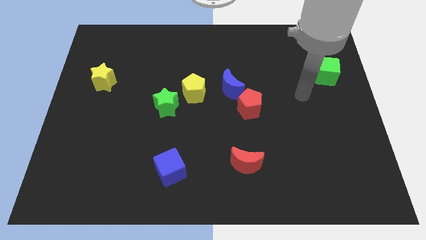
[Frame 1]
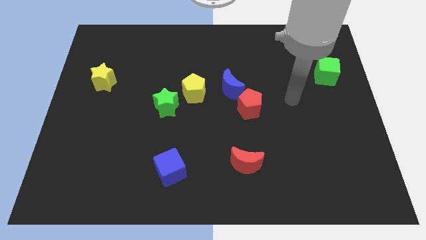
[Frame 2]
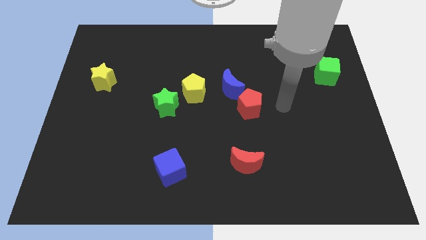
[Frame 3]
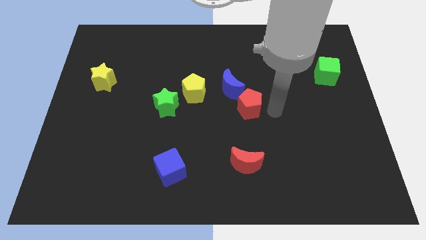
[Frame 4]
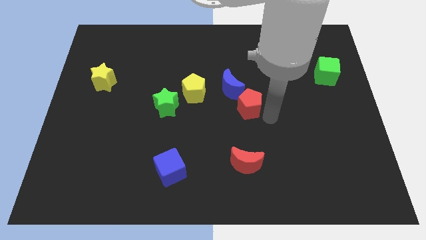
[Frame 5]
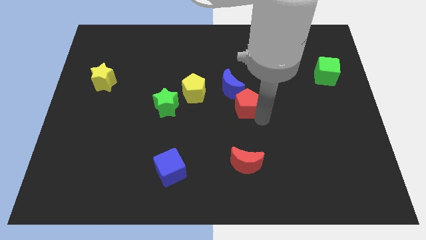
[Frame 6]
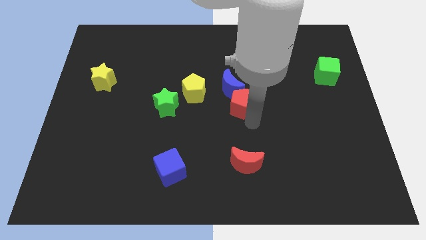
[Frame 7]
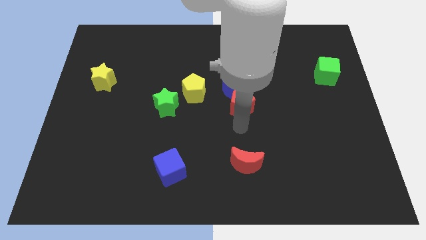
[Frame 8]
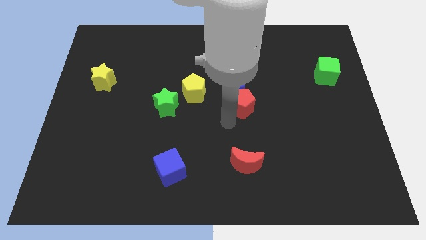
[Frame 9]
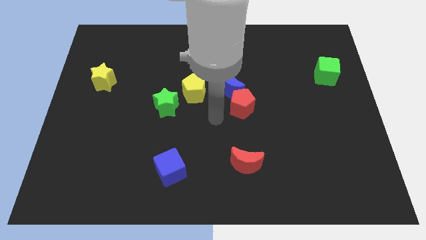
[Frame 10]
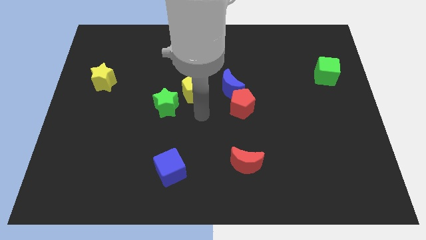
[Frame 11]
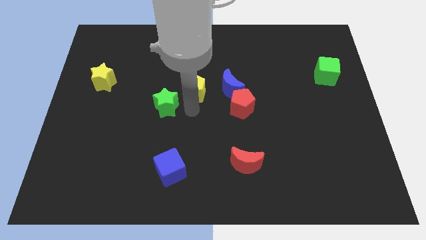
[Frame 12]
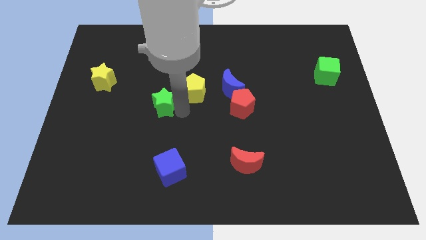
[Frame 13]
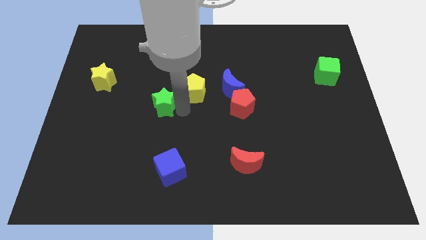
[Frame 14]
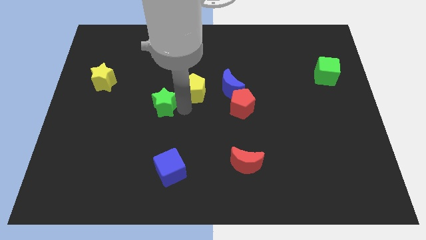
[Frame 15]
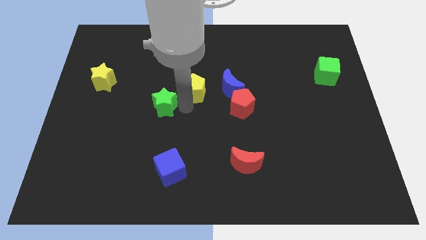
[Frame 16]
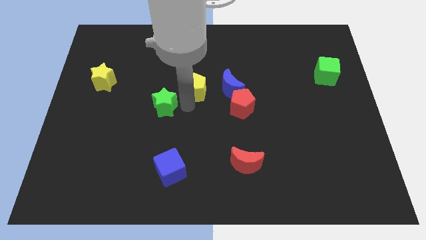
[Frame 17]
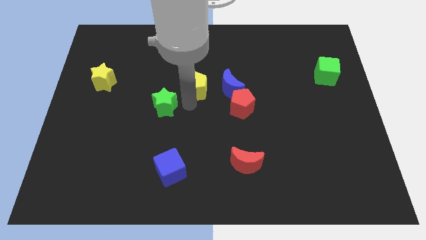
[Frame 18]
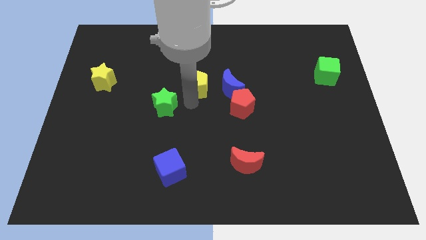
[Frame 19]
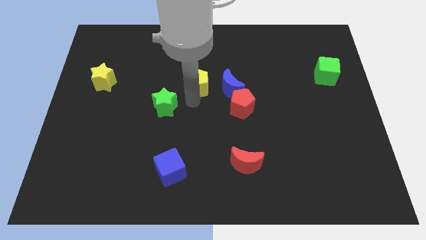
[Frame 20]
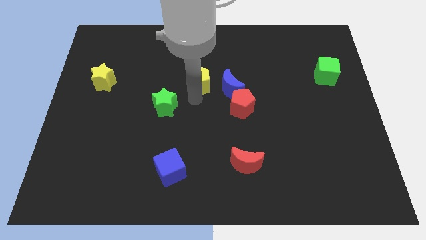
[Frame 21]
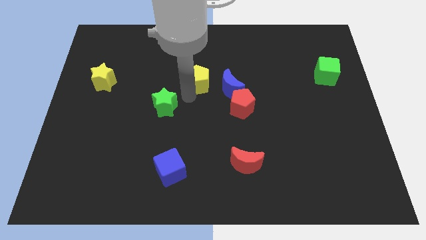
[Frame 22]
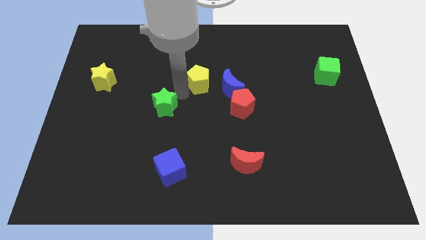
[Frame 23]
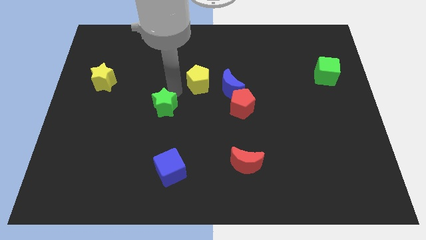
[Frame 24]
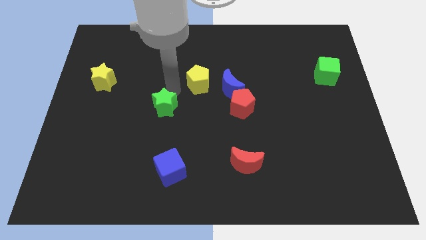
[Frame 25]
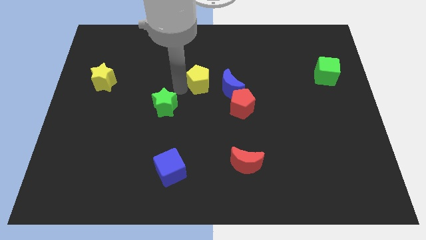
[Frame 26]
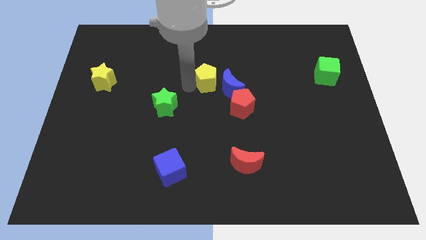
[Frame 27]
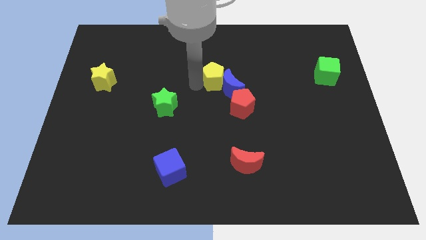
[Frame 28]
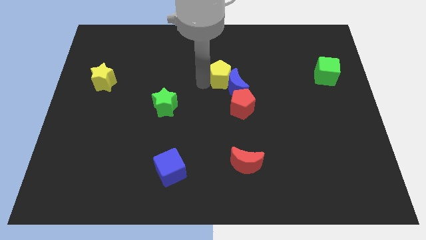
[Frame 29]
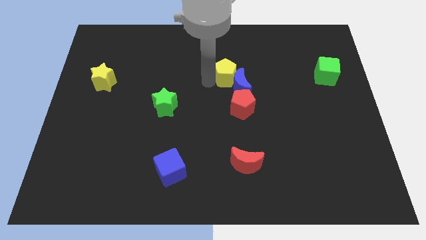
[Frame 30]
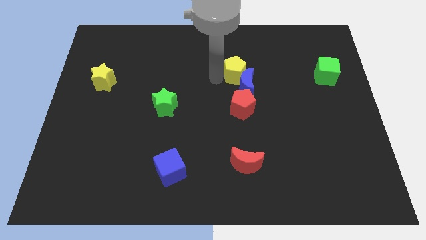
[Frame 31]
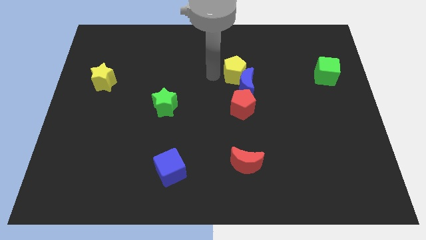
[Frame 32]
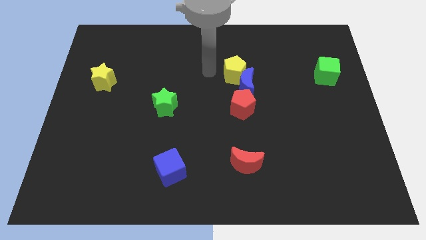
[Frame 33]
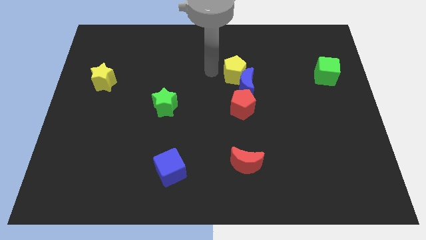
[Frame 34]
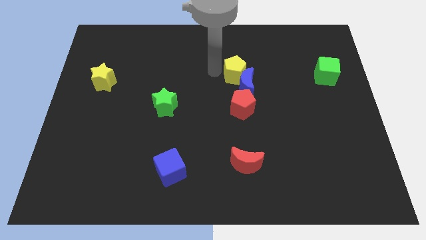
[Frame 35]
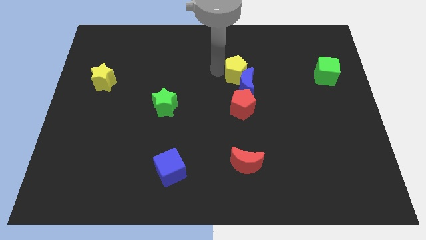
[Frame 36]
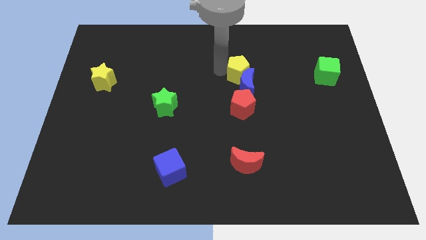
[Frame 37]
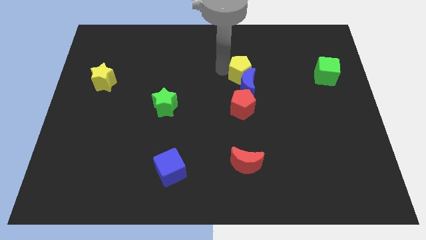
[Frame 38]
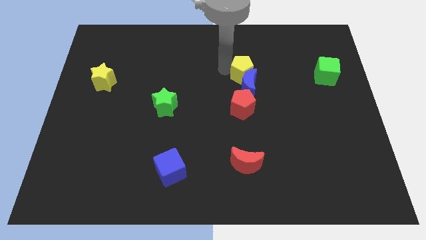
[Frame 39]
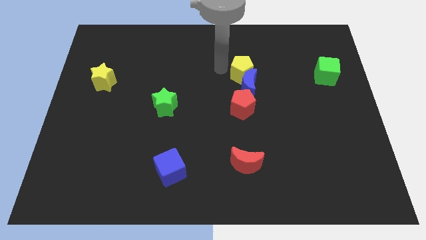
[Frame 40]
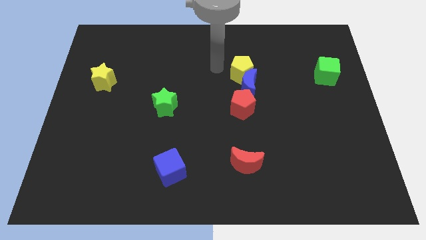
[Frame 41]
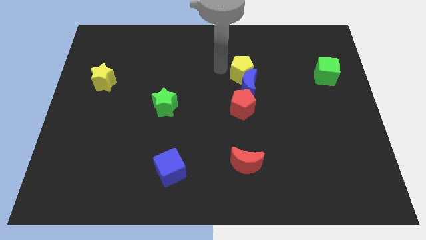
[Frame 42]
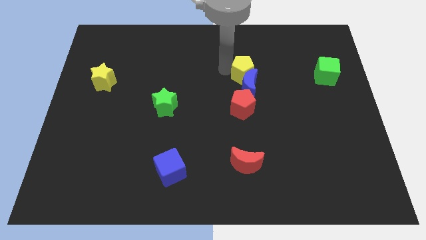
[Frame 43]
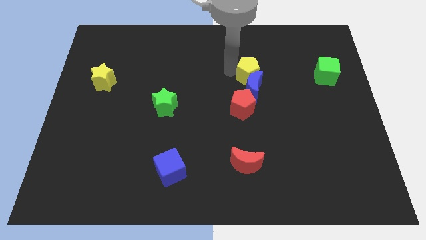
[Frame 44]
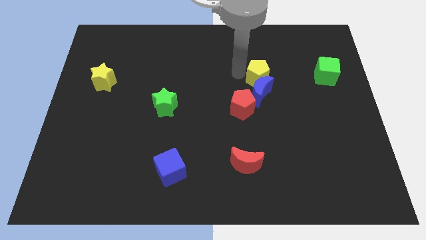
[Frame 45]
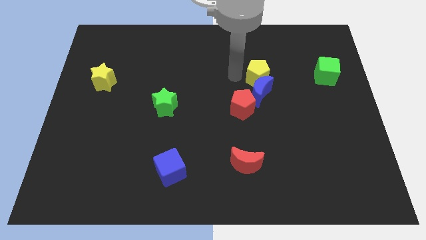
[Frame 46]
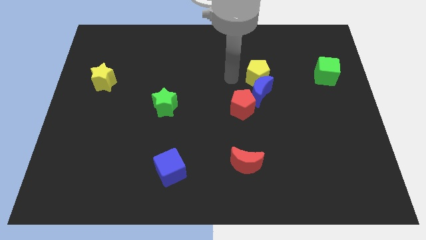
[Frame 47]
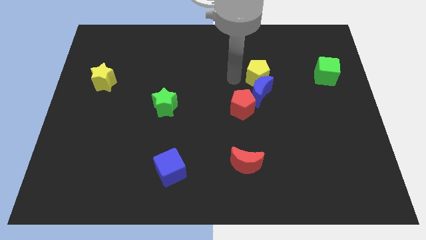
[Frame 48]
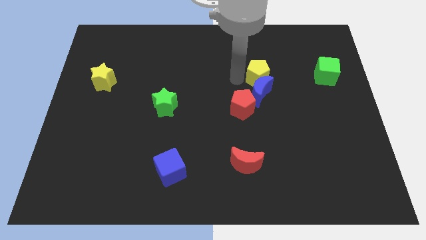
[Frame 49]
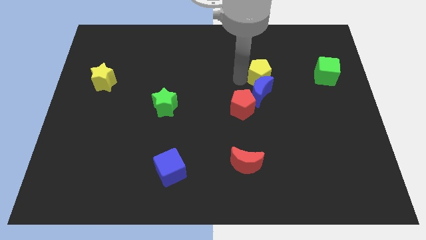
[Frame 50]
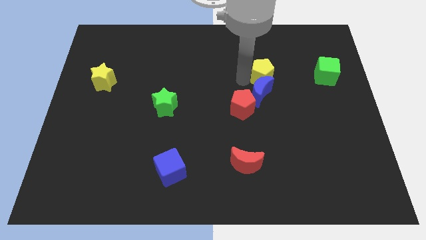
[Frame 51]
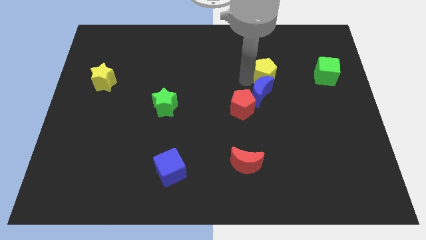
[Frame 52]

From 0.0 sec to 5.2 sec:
push the yellow pentagon just left of the green cube

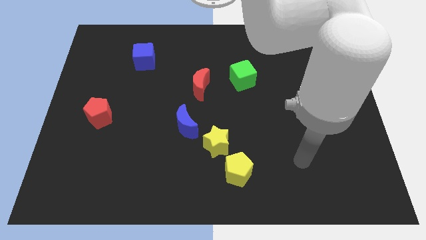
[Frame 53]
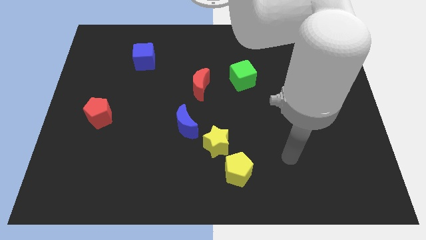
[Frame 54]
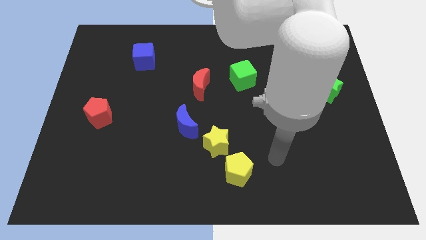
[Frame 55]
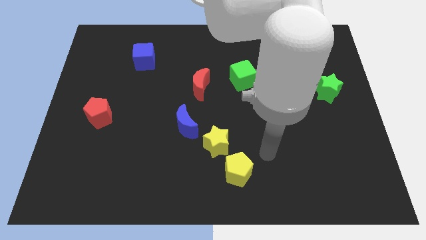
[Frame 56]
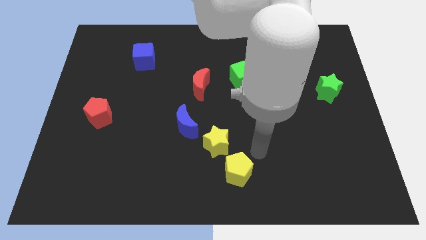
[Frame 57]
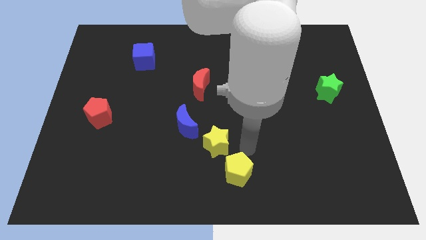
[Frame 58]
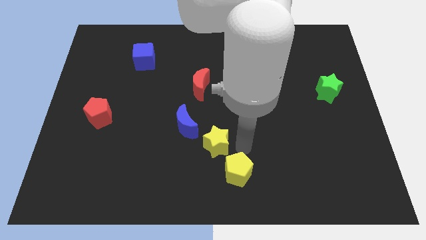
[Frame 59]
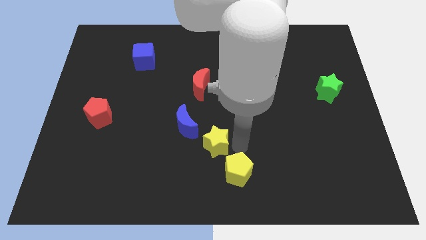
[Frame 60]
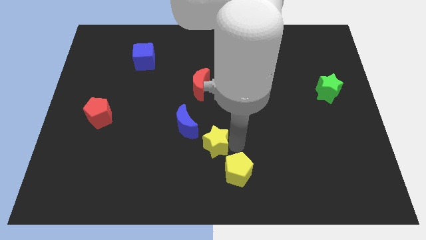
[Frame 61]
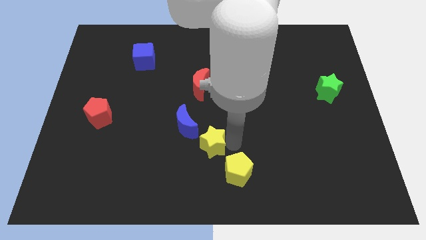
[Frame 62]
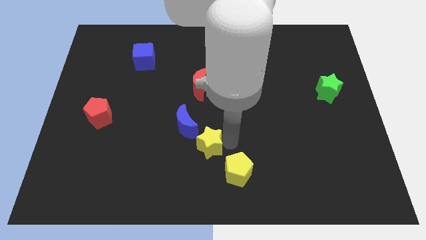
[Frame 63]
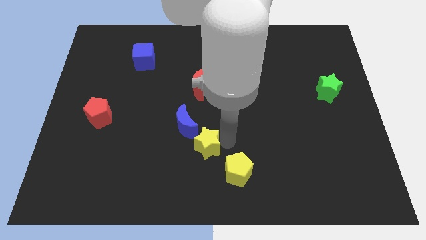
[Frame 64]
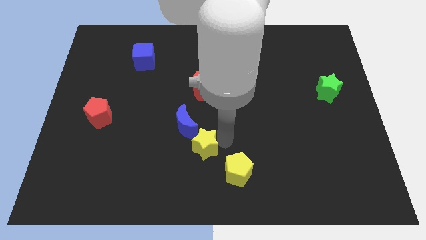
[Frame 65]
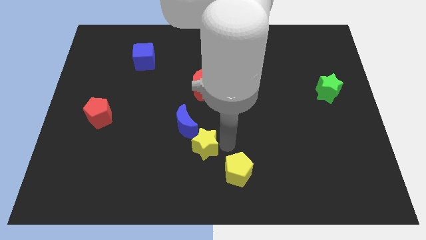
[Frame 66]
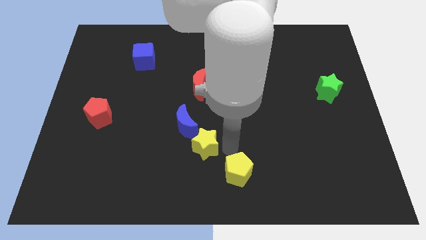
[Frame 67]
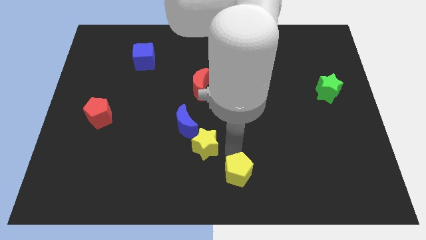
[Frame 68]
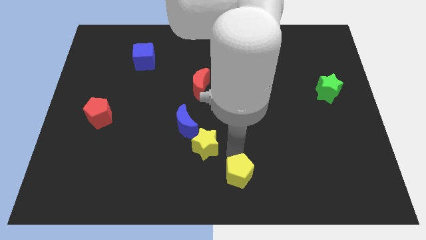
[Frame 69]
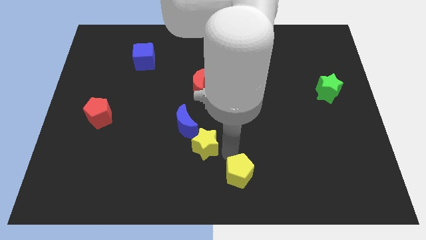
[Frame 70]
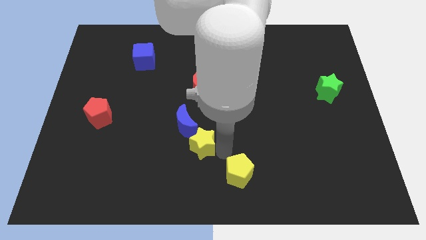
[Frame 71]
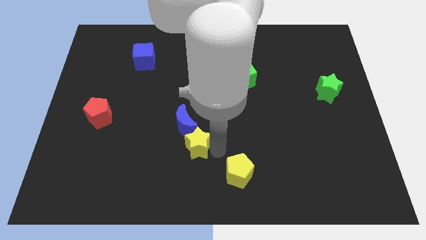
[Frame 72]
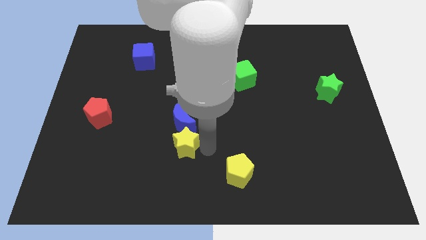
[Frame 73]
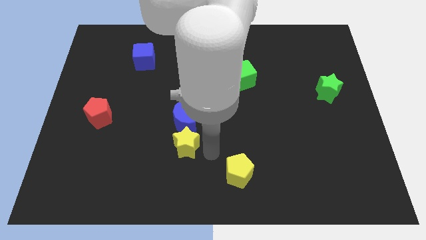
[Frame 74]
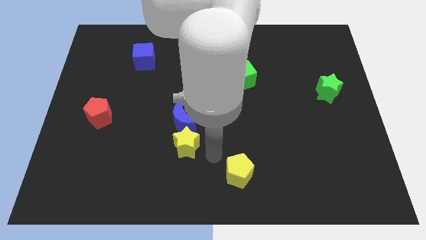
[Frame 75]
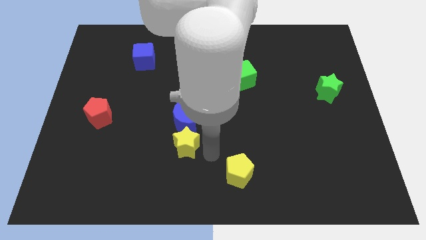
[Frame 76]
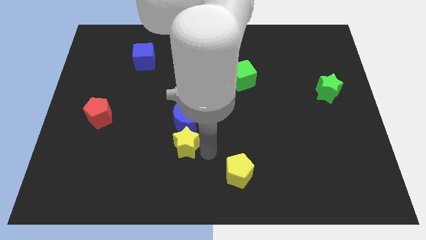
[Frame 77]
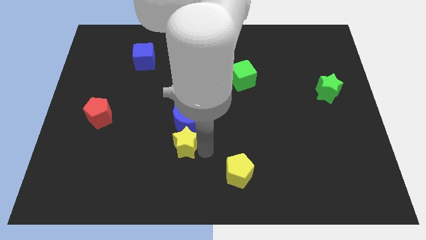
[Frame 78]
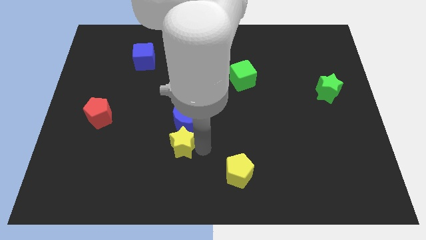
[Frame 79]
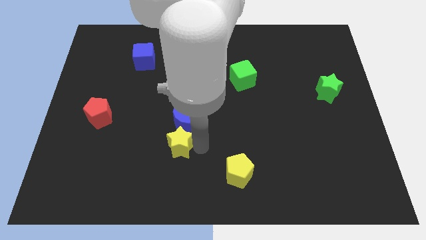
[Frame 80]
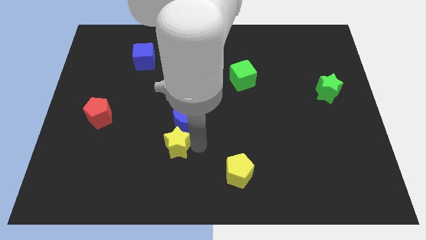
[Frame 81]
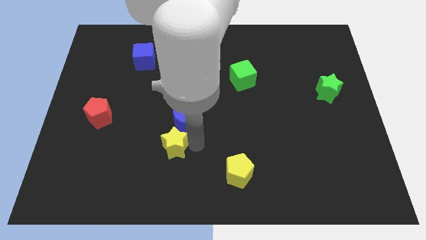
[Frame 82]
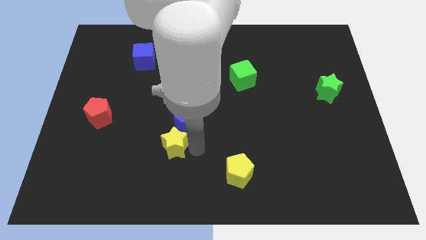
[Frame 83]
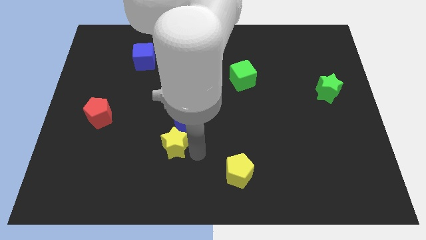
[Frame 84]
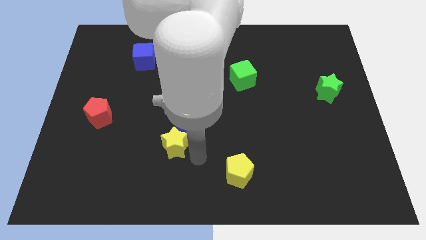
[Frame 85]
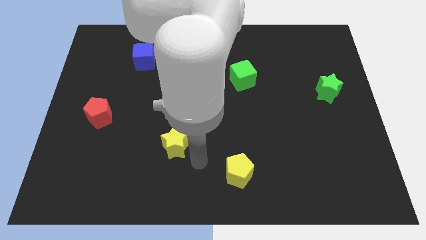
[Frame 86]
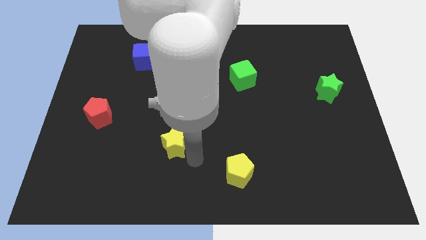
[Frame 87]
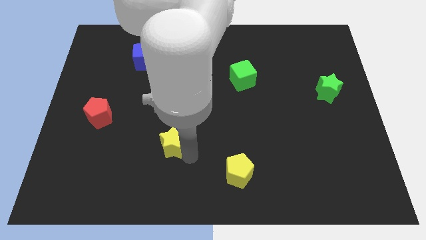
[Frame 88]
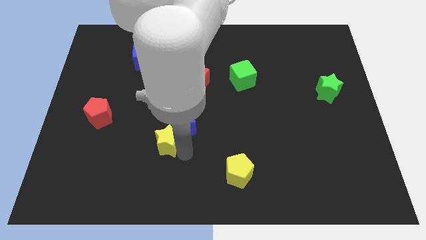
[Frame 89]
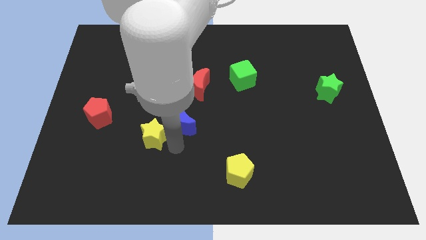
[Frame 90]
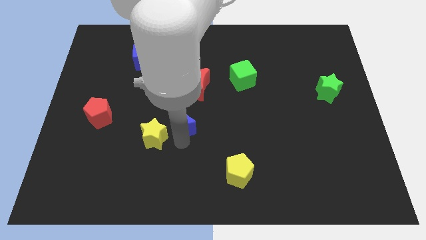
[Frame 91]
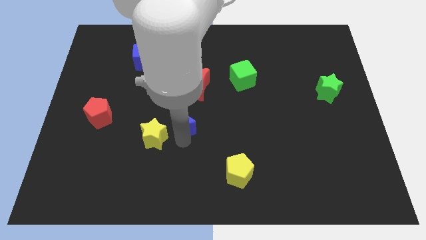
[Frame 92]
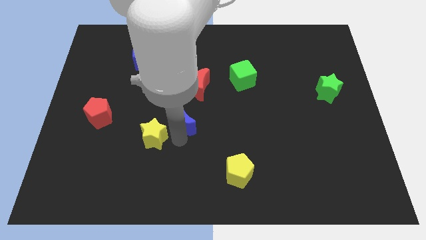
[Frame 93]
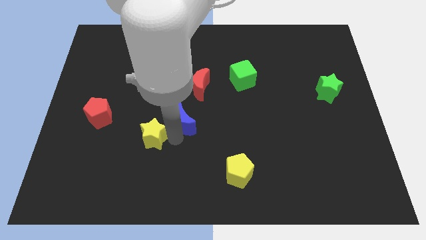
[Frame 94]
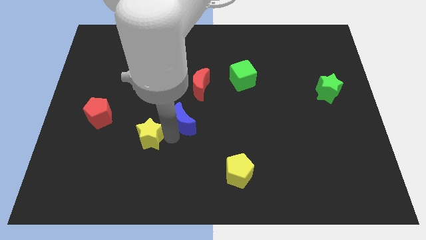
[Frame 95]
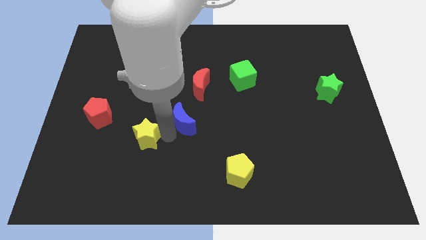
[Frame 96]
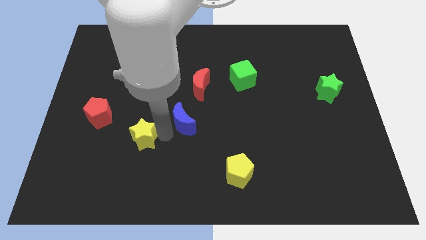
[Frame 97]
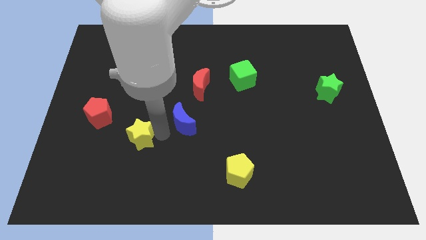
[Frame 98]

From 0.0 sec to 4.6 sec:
move the yellow star diagonally down and to the right of the red pentagon
